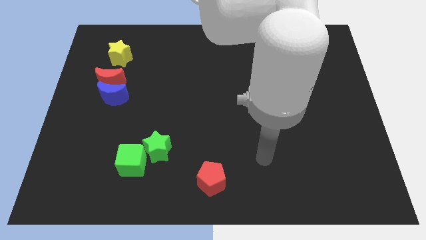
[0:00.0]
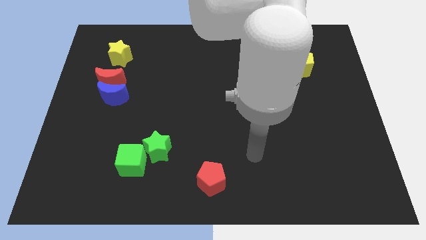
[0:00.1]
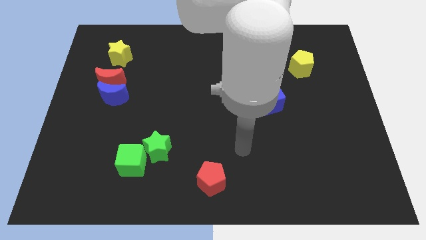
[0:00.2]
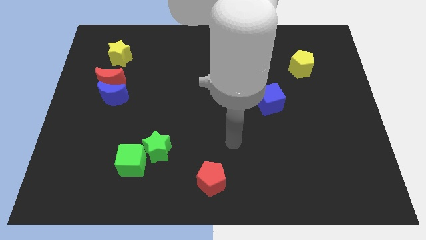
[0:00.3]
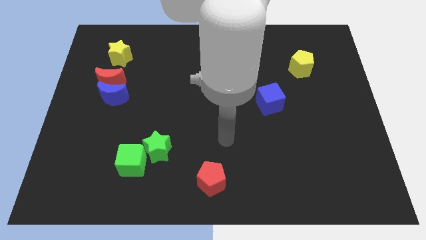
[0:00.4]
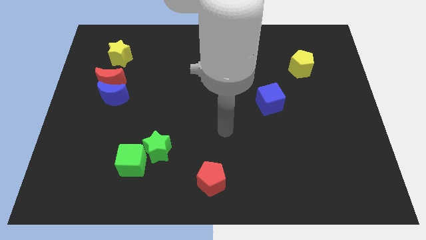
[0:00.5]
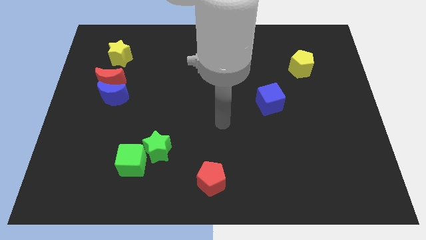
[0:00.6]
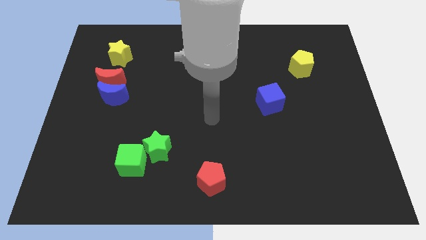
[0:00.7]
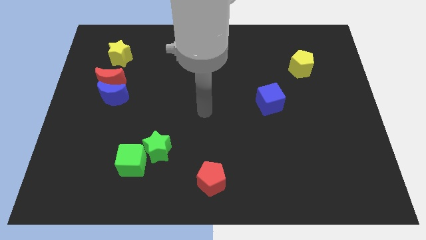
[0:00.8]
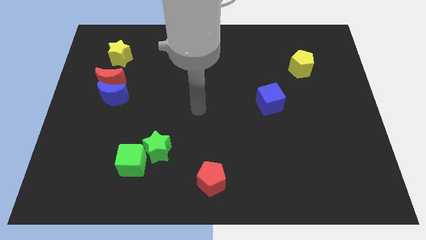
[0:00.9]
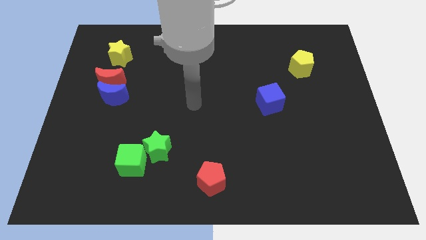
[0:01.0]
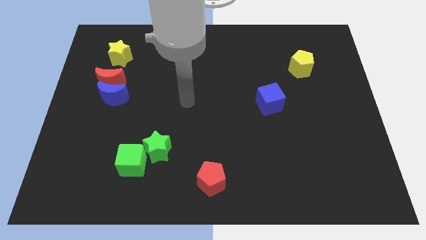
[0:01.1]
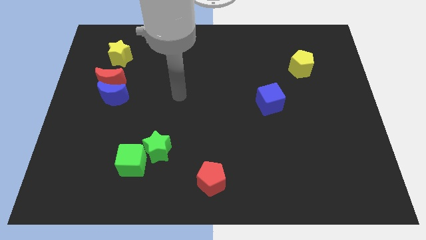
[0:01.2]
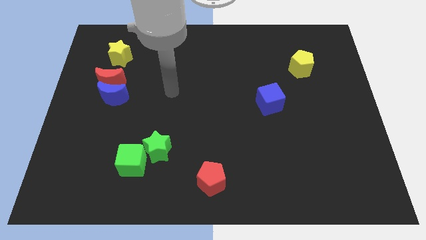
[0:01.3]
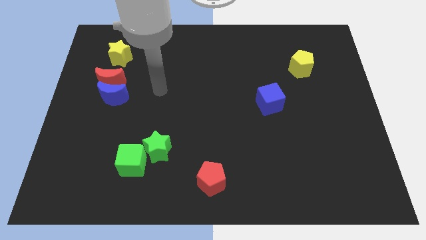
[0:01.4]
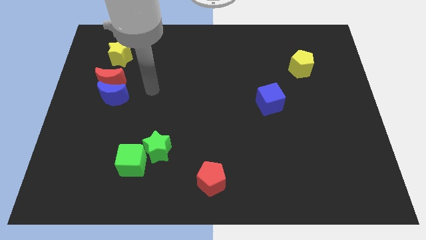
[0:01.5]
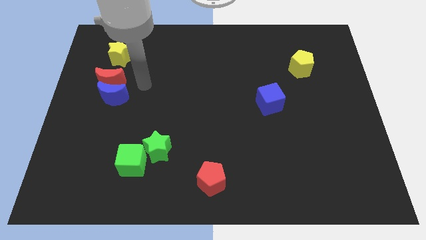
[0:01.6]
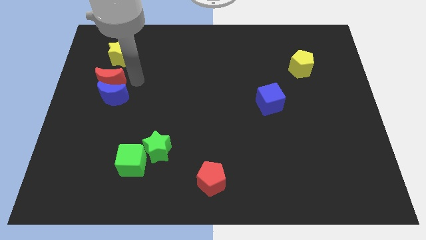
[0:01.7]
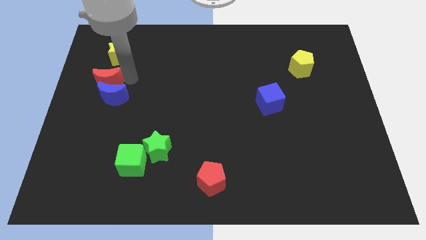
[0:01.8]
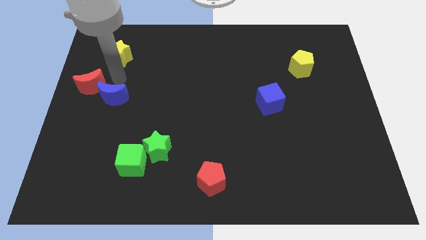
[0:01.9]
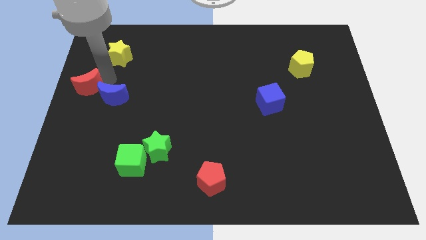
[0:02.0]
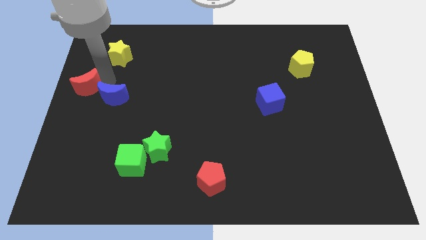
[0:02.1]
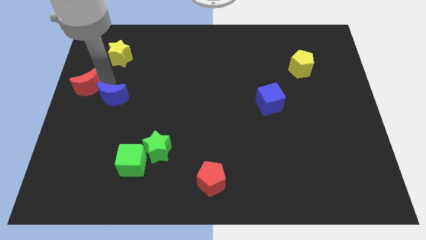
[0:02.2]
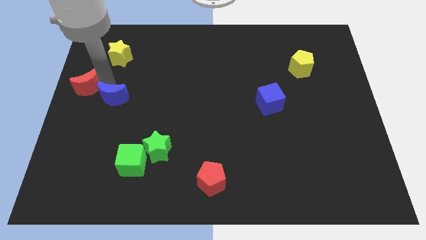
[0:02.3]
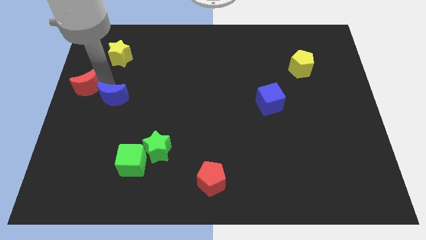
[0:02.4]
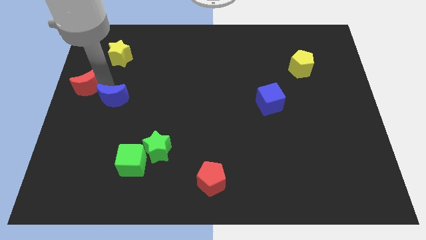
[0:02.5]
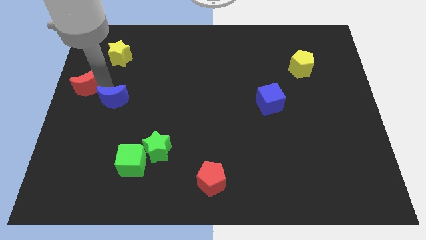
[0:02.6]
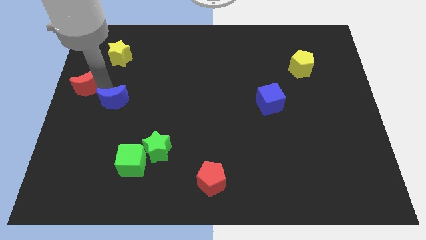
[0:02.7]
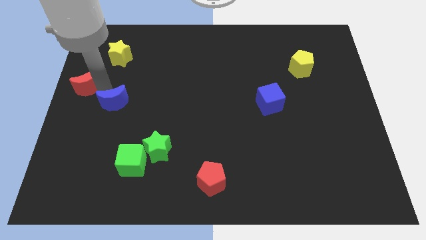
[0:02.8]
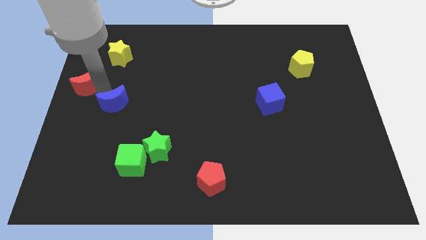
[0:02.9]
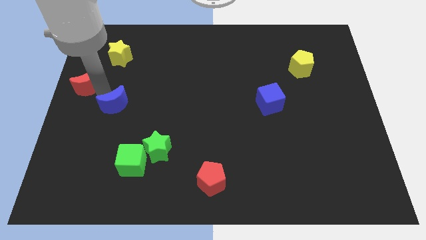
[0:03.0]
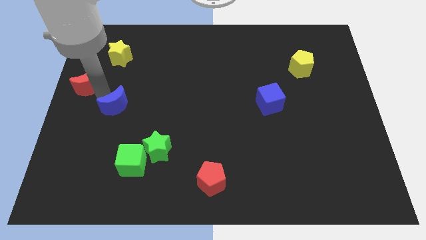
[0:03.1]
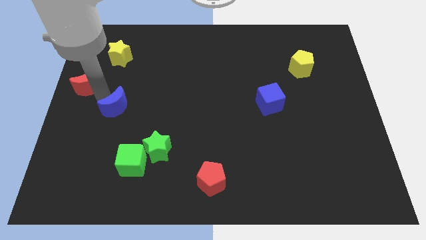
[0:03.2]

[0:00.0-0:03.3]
separate the blue moon from the red moon

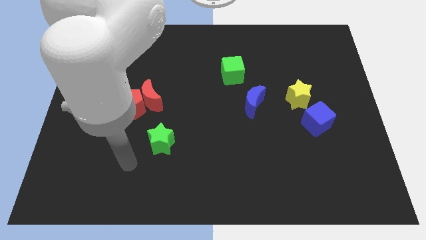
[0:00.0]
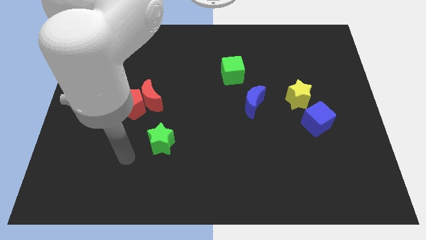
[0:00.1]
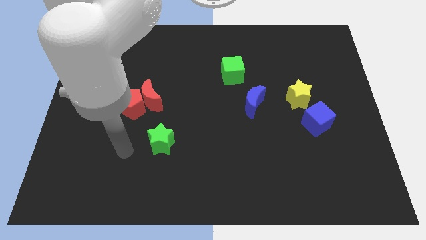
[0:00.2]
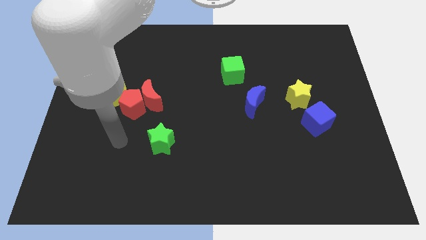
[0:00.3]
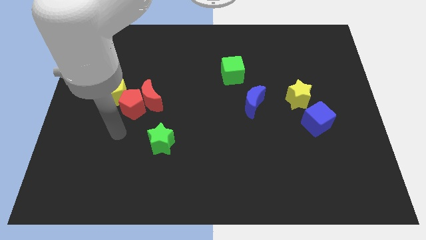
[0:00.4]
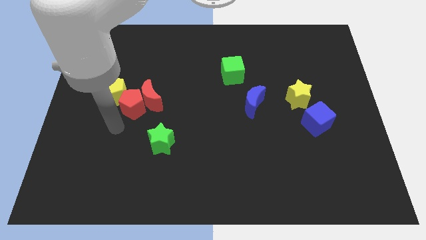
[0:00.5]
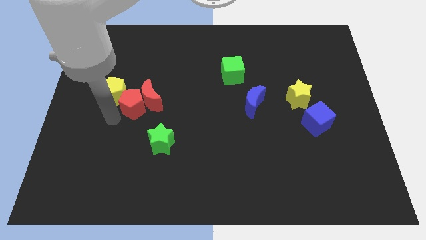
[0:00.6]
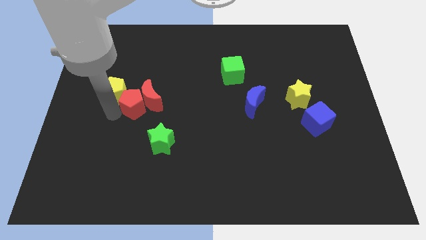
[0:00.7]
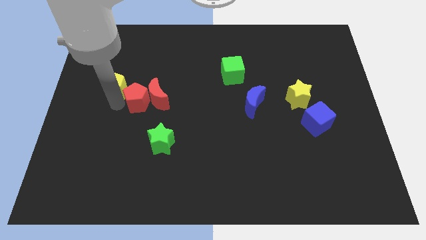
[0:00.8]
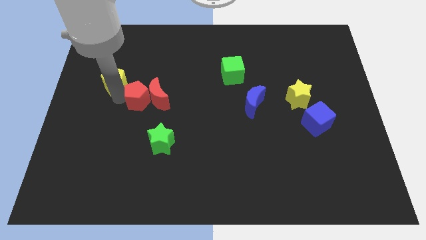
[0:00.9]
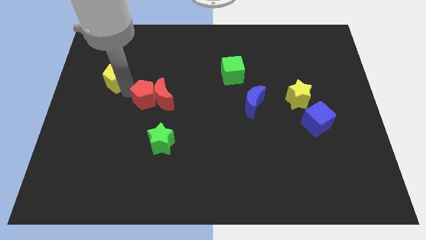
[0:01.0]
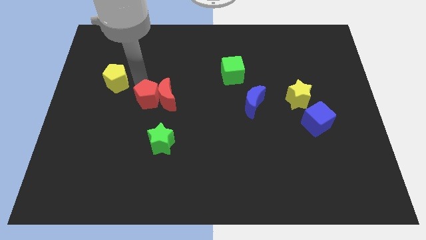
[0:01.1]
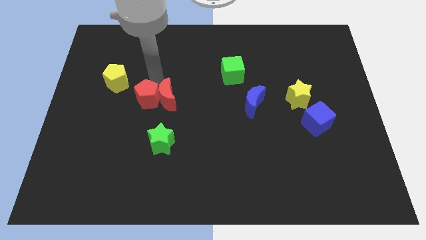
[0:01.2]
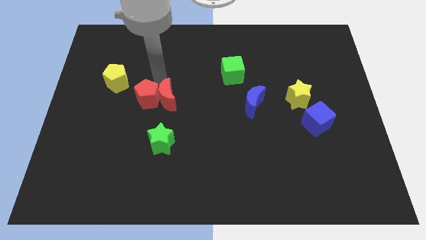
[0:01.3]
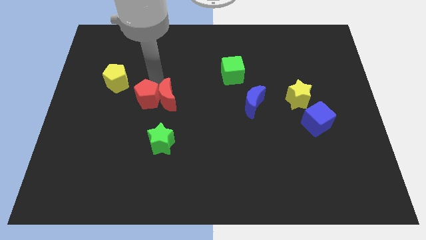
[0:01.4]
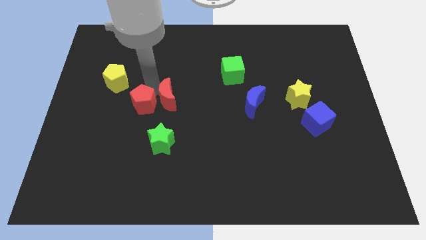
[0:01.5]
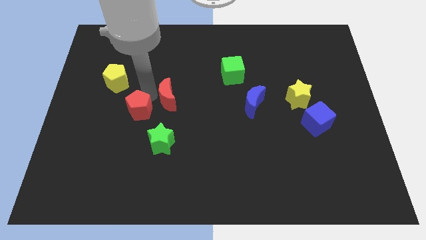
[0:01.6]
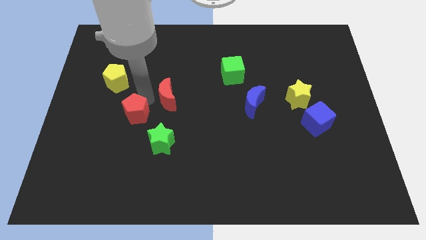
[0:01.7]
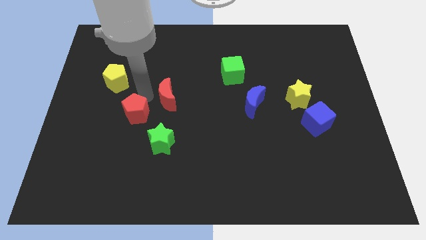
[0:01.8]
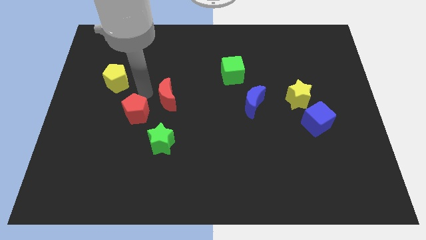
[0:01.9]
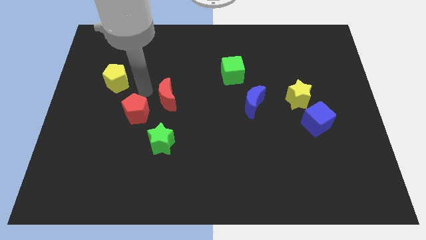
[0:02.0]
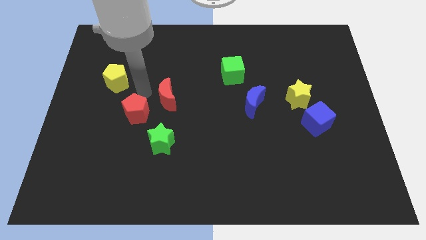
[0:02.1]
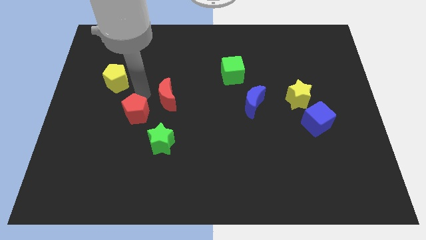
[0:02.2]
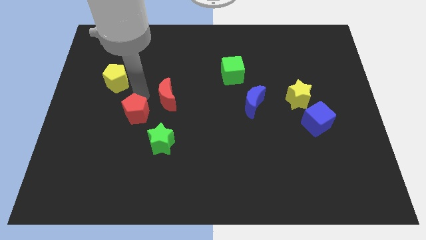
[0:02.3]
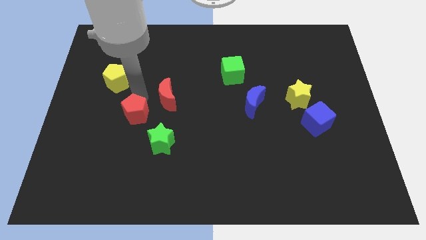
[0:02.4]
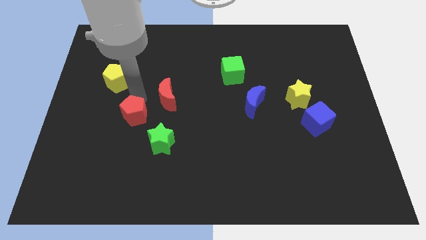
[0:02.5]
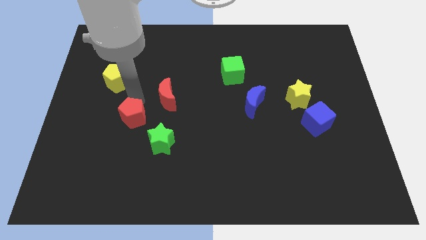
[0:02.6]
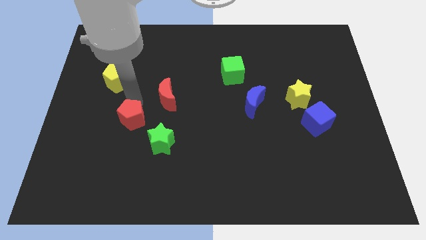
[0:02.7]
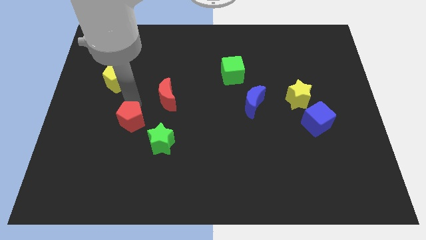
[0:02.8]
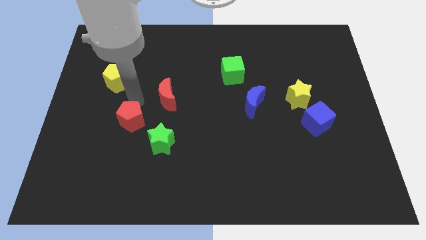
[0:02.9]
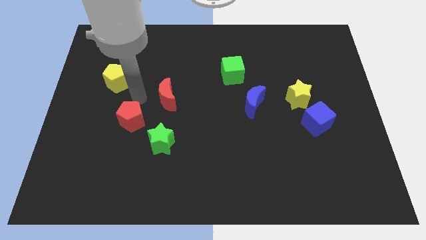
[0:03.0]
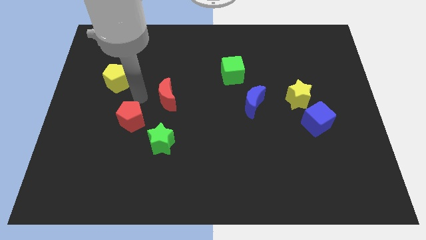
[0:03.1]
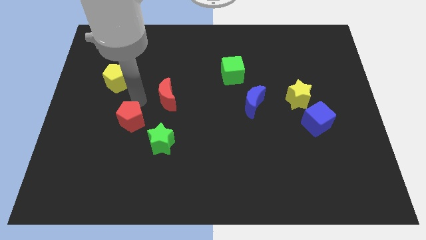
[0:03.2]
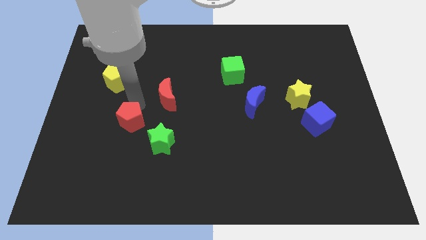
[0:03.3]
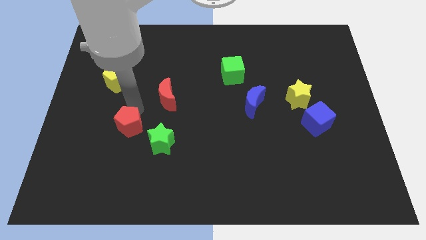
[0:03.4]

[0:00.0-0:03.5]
separate the red pentagon from the red moon and yellow pentagon

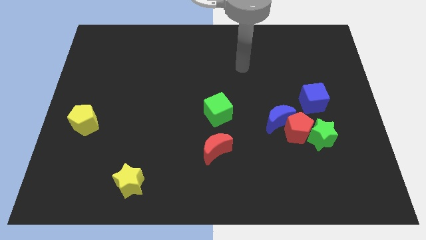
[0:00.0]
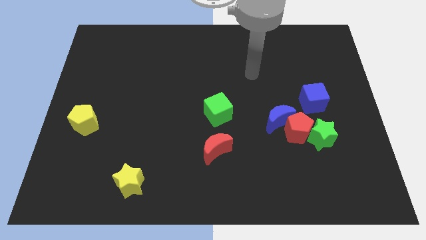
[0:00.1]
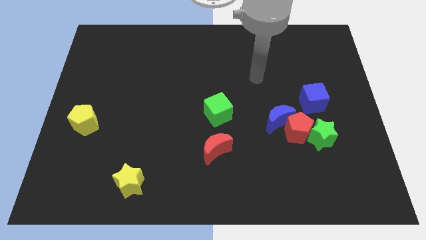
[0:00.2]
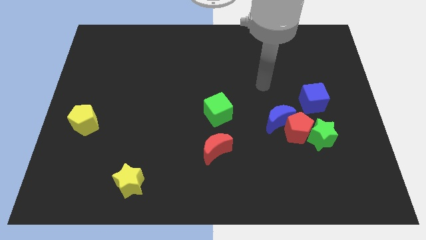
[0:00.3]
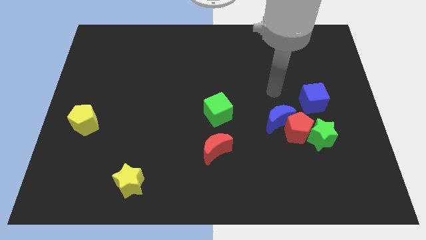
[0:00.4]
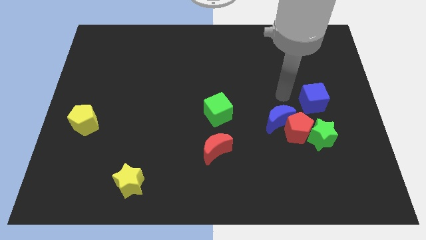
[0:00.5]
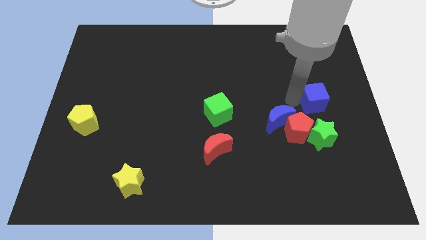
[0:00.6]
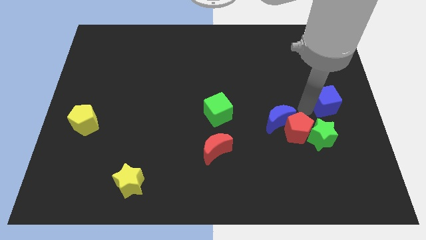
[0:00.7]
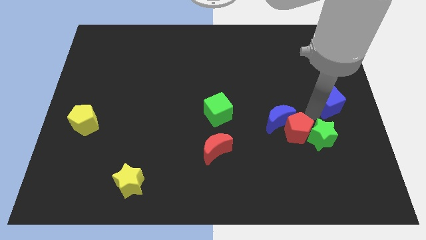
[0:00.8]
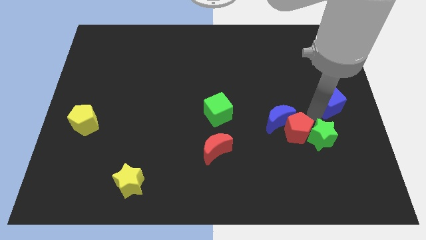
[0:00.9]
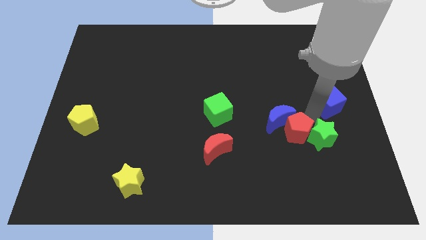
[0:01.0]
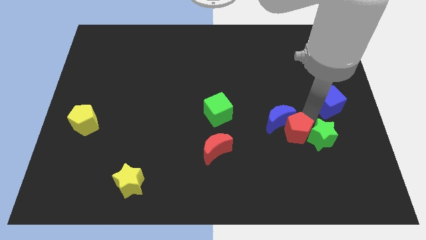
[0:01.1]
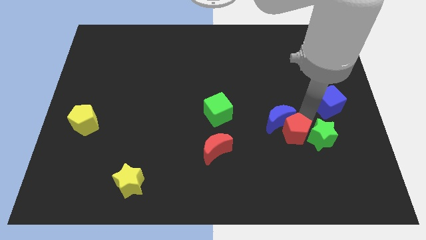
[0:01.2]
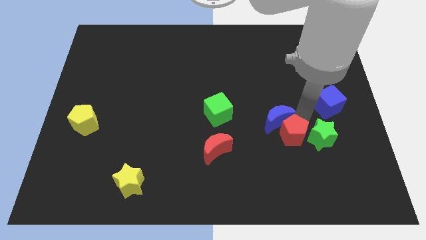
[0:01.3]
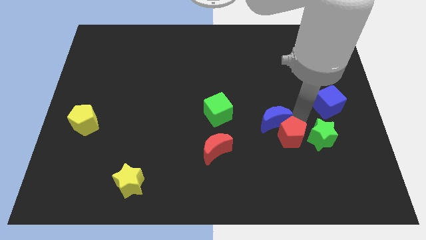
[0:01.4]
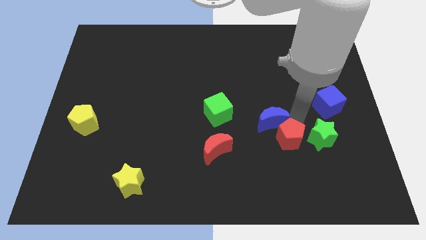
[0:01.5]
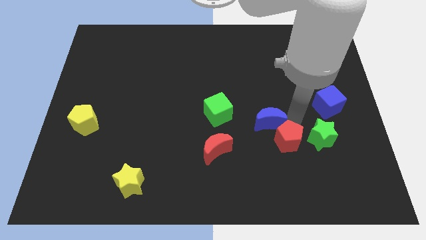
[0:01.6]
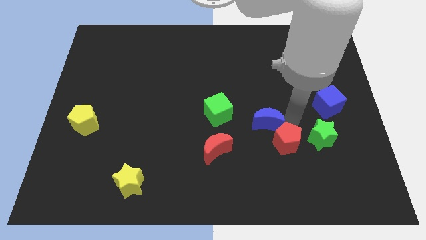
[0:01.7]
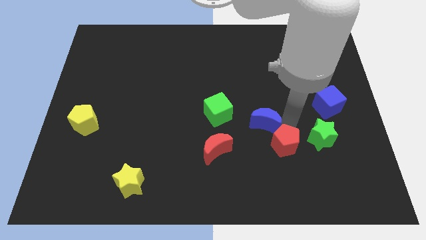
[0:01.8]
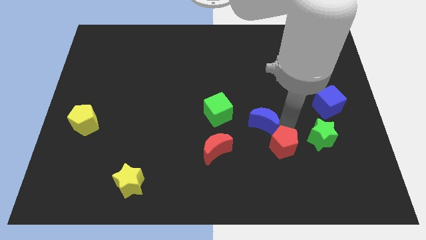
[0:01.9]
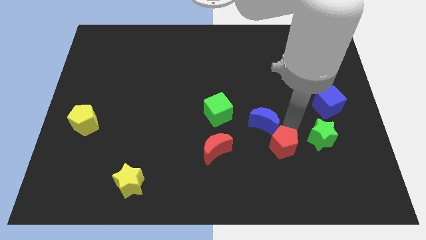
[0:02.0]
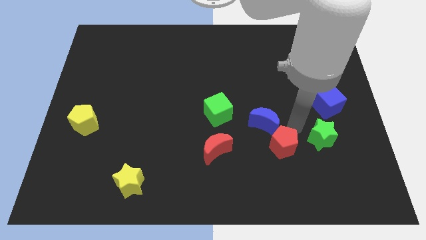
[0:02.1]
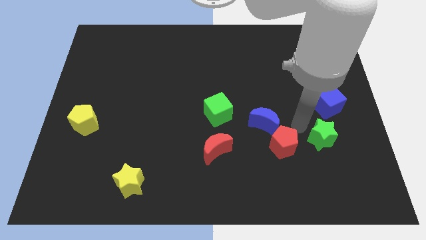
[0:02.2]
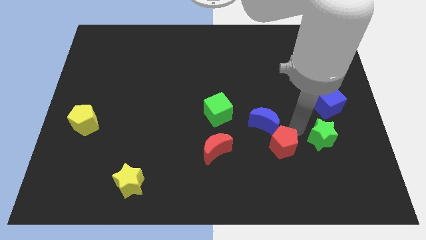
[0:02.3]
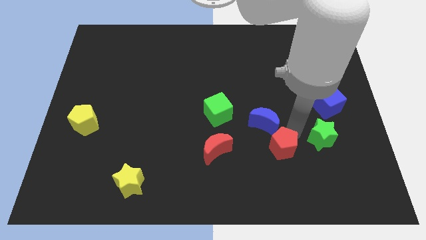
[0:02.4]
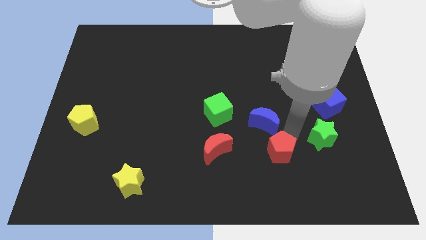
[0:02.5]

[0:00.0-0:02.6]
pull the red pentagon apart from the blue moon, green star, and blue cube
